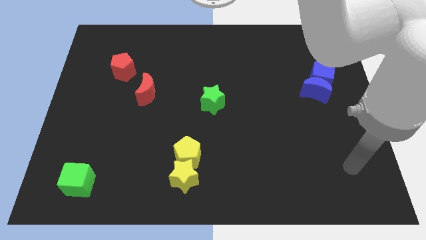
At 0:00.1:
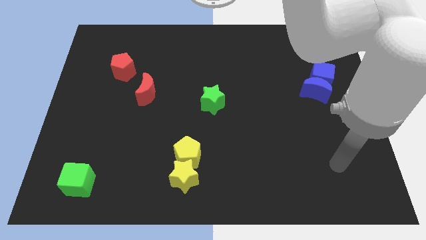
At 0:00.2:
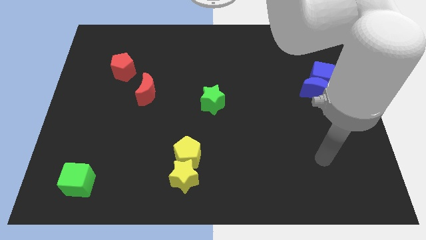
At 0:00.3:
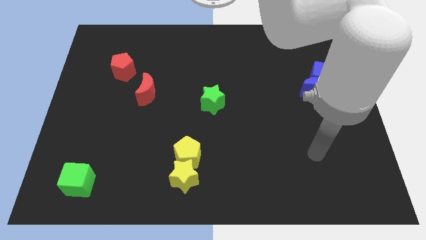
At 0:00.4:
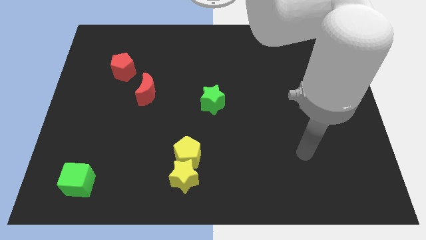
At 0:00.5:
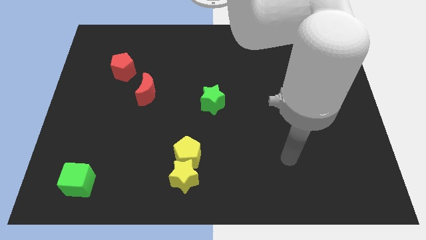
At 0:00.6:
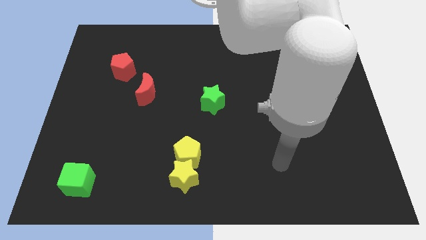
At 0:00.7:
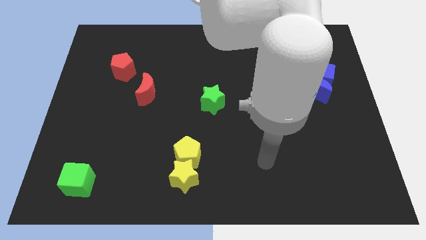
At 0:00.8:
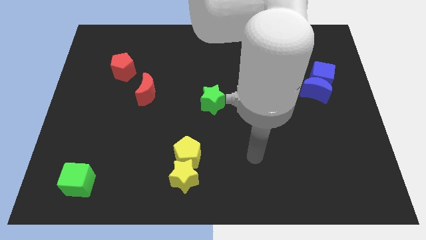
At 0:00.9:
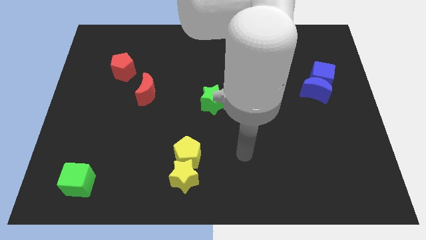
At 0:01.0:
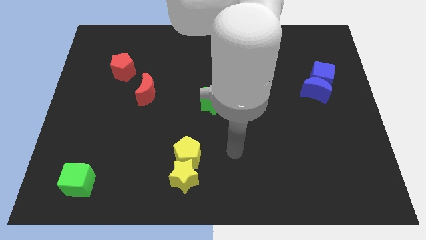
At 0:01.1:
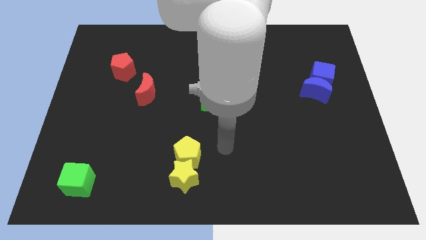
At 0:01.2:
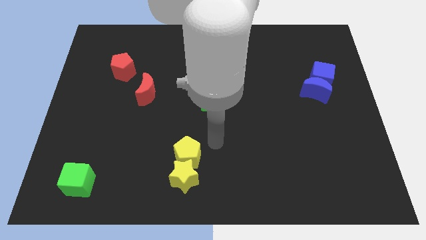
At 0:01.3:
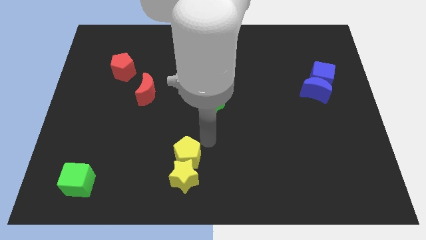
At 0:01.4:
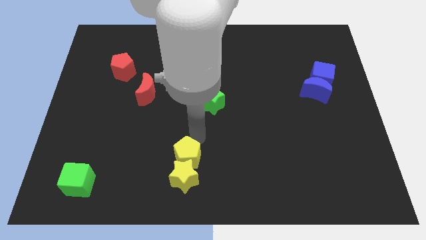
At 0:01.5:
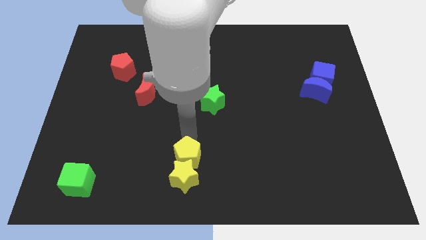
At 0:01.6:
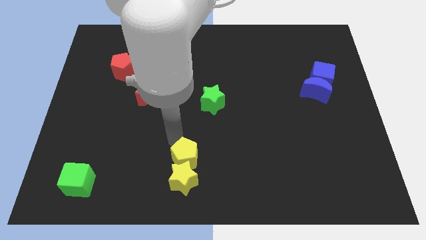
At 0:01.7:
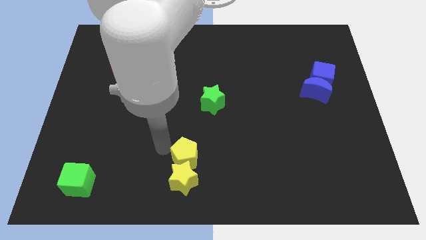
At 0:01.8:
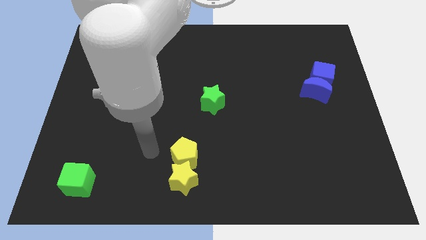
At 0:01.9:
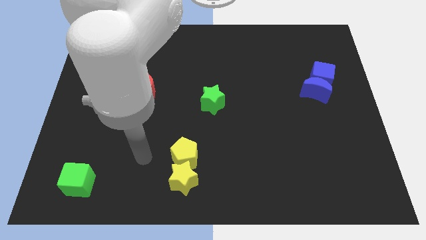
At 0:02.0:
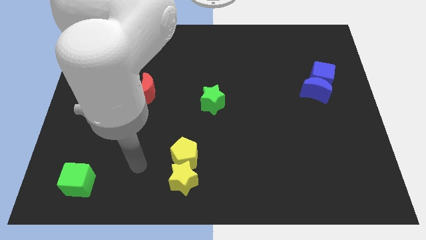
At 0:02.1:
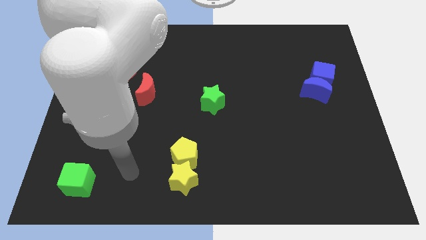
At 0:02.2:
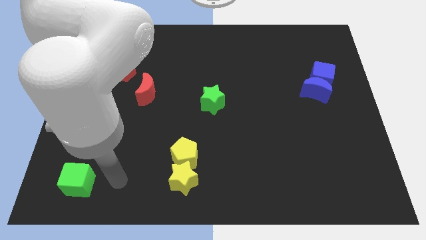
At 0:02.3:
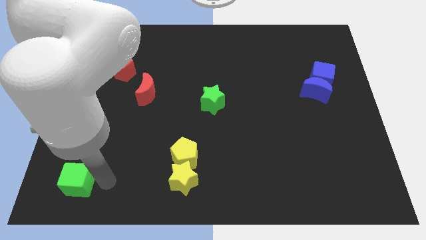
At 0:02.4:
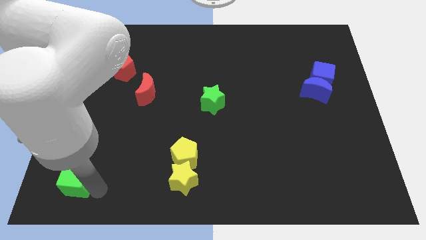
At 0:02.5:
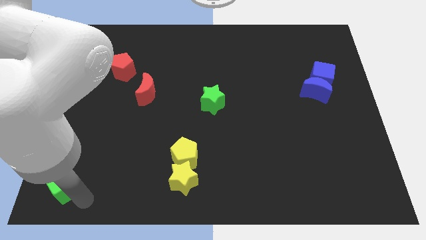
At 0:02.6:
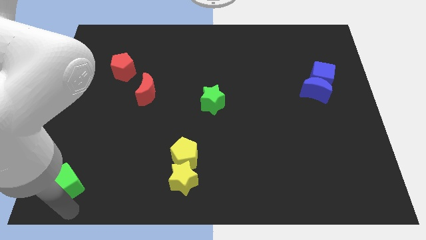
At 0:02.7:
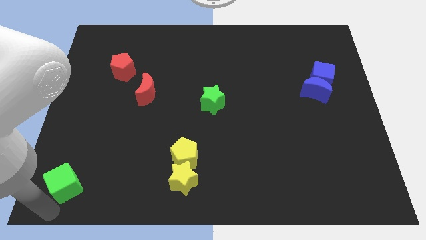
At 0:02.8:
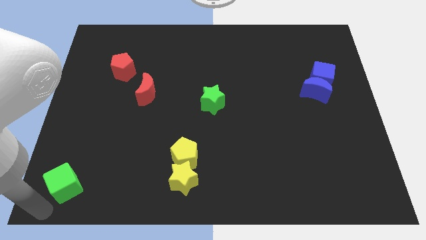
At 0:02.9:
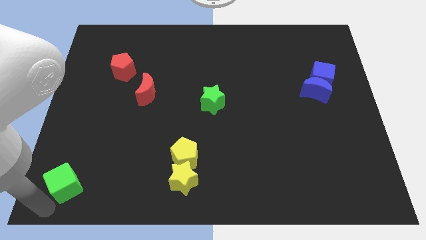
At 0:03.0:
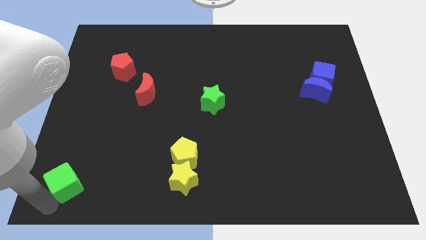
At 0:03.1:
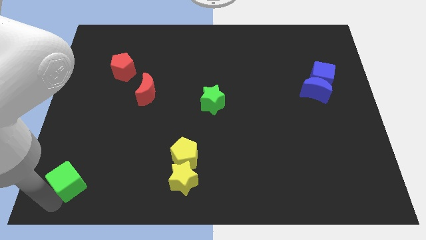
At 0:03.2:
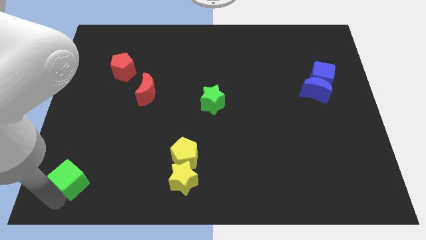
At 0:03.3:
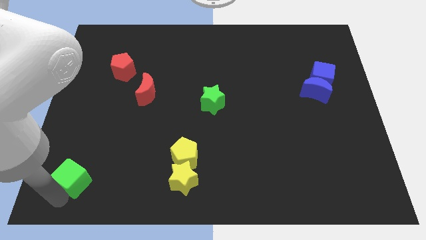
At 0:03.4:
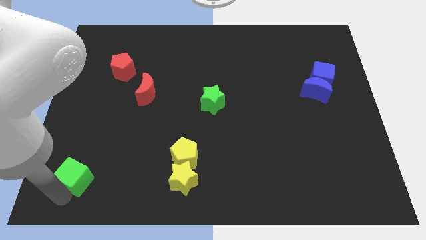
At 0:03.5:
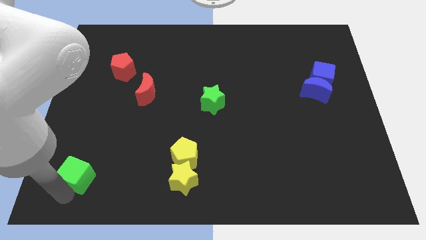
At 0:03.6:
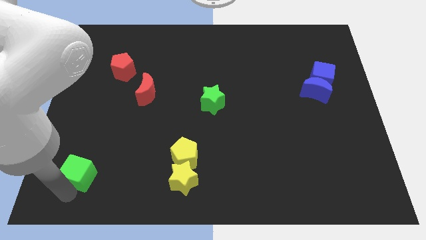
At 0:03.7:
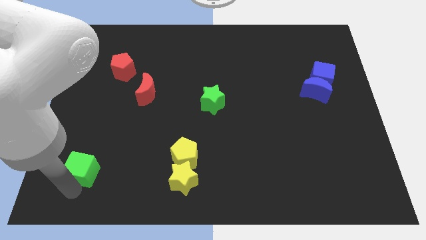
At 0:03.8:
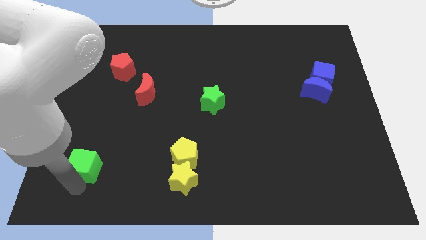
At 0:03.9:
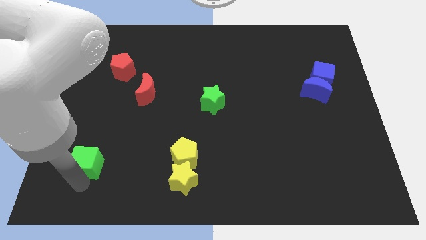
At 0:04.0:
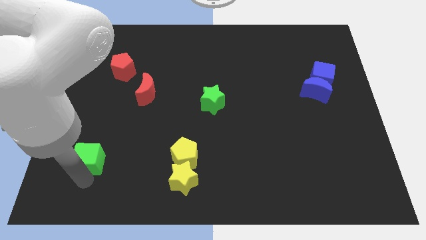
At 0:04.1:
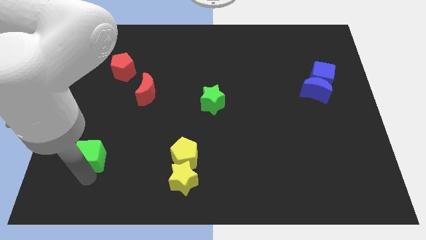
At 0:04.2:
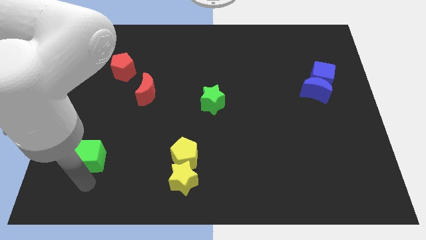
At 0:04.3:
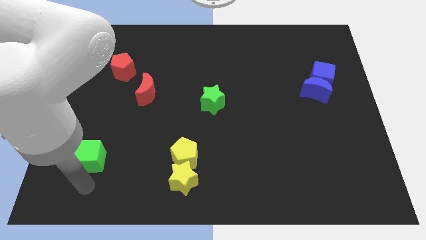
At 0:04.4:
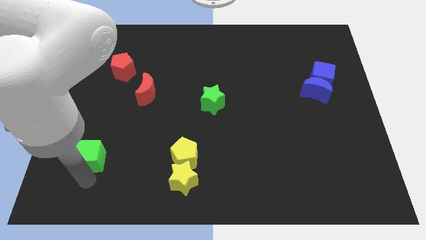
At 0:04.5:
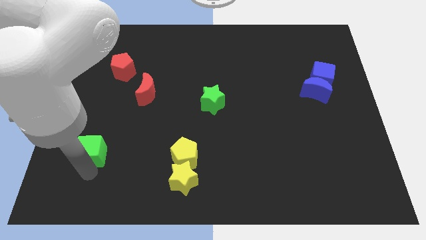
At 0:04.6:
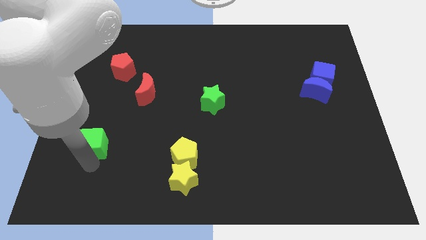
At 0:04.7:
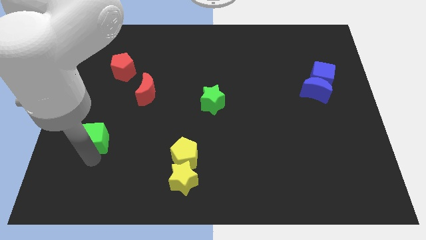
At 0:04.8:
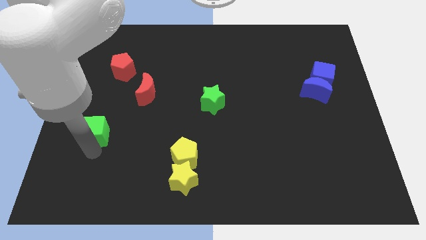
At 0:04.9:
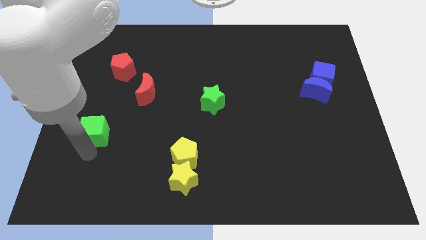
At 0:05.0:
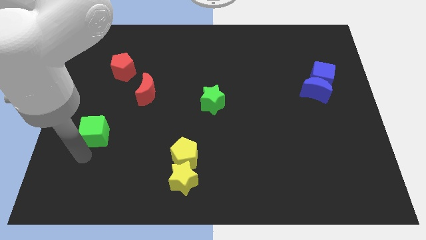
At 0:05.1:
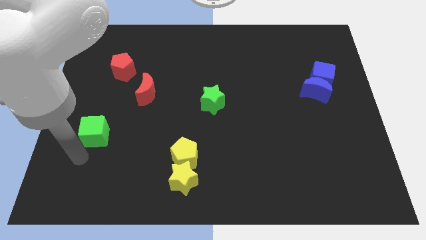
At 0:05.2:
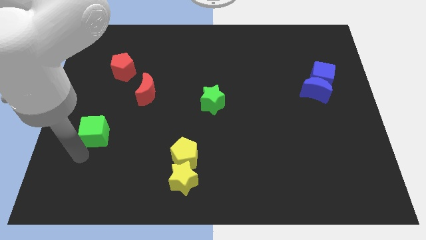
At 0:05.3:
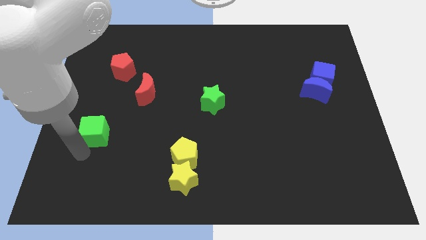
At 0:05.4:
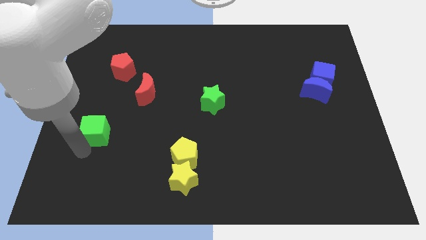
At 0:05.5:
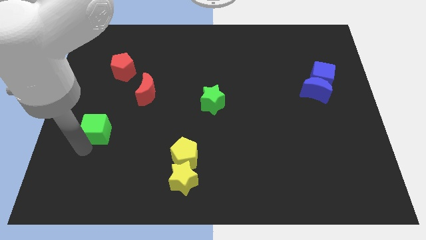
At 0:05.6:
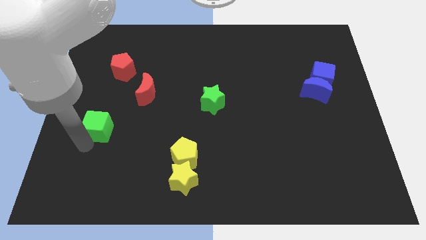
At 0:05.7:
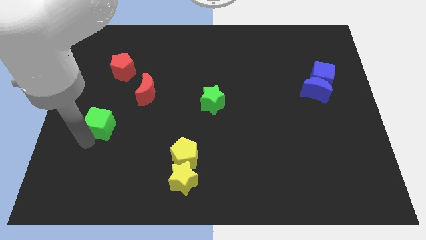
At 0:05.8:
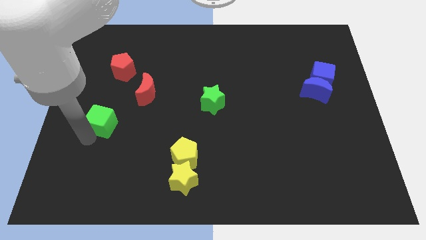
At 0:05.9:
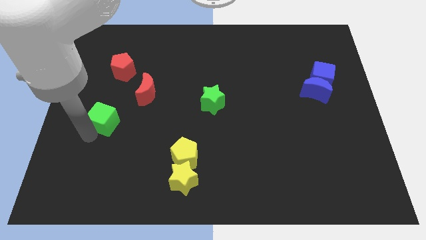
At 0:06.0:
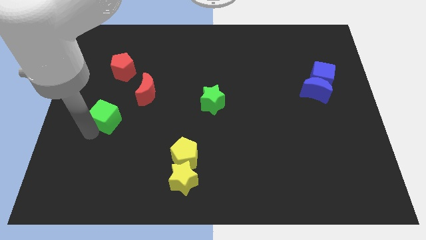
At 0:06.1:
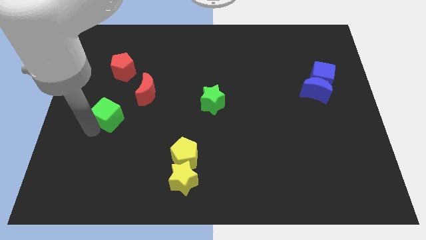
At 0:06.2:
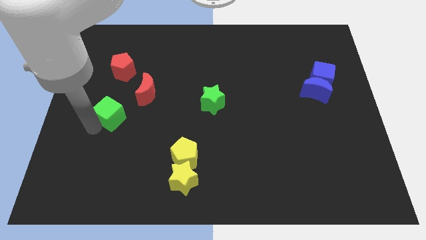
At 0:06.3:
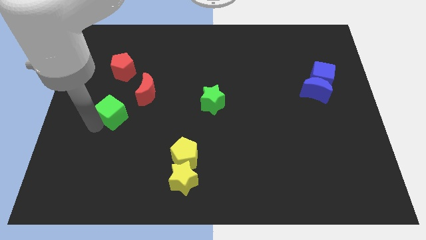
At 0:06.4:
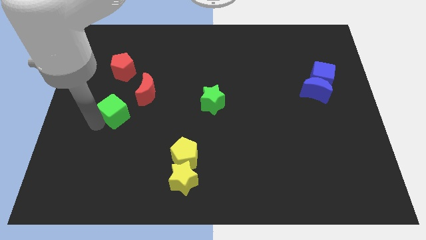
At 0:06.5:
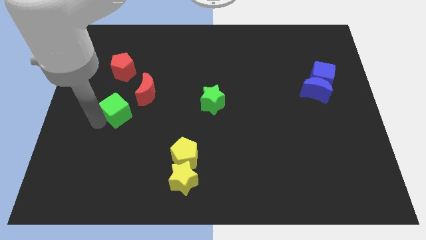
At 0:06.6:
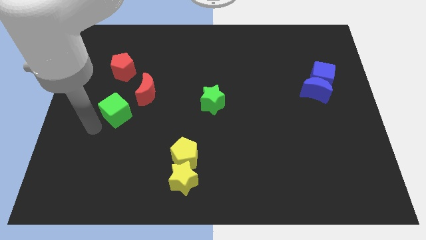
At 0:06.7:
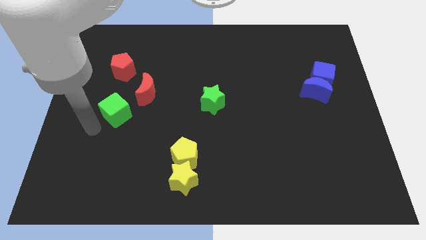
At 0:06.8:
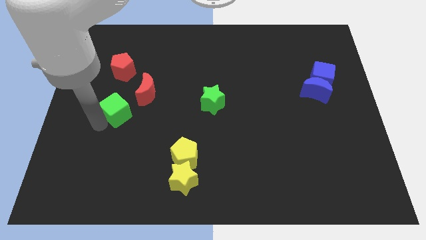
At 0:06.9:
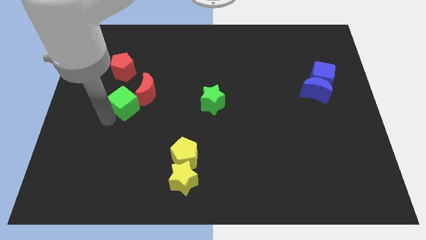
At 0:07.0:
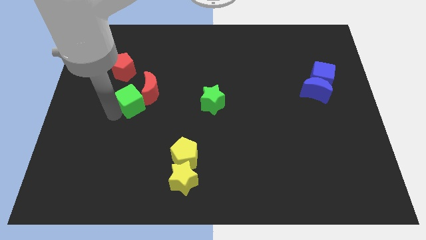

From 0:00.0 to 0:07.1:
slide the green cube towards the red moon

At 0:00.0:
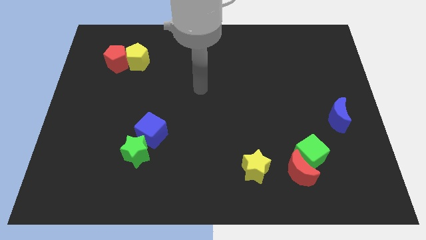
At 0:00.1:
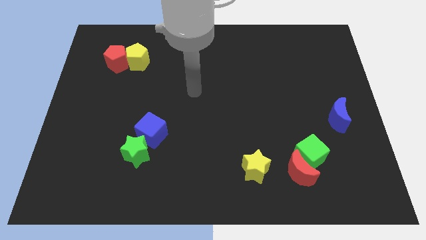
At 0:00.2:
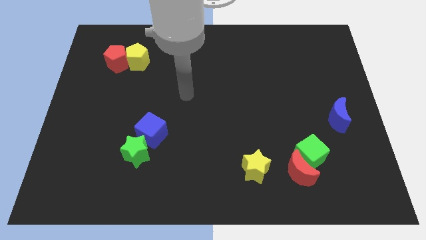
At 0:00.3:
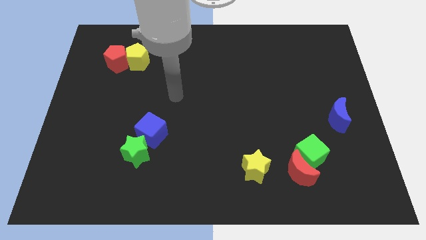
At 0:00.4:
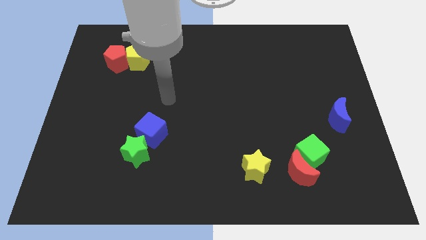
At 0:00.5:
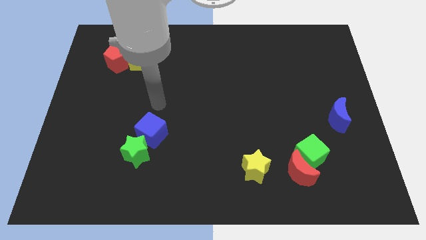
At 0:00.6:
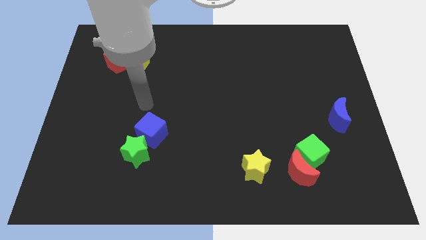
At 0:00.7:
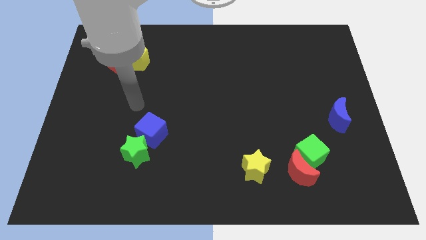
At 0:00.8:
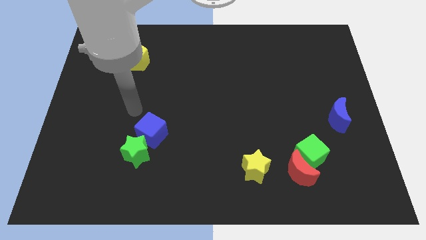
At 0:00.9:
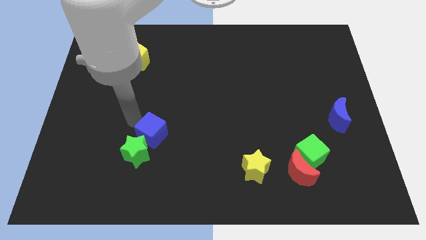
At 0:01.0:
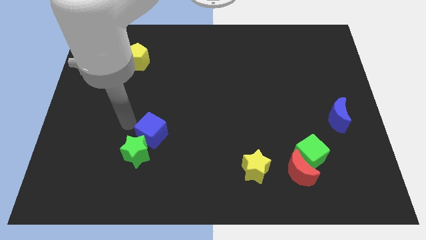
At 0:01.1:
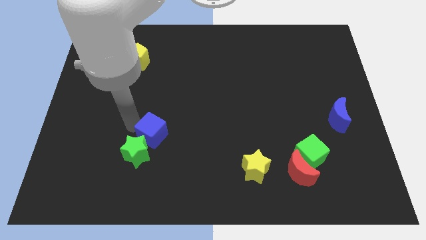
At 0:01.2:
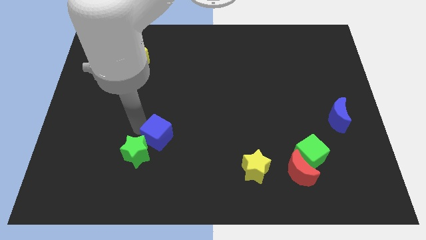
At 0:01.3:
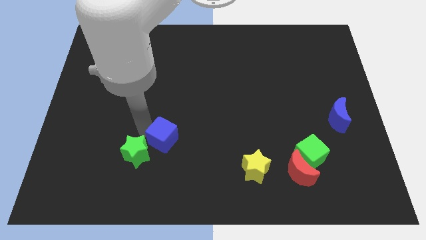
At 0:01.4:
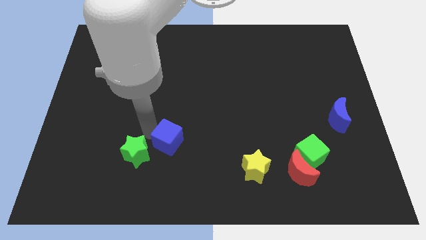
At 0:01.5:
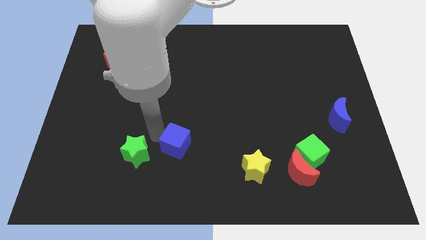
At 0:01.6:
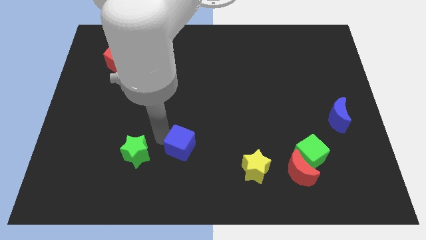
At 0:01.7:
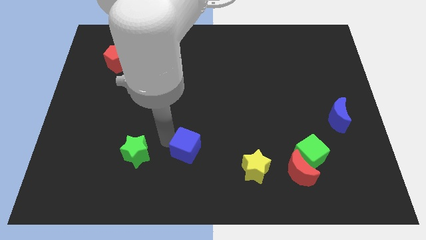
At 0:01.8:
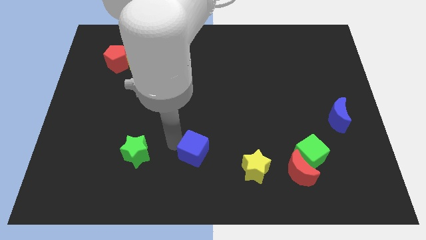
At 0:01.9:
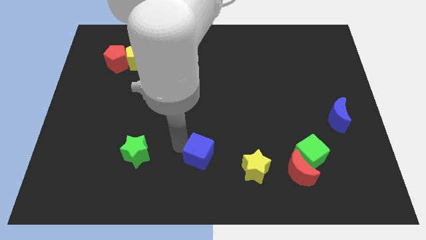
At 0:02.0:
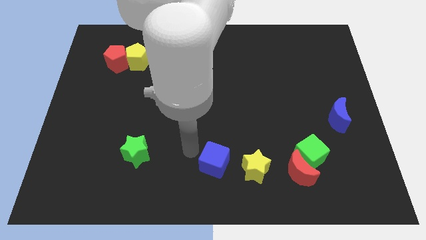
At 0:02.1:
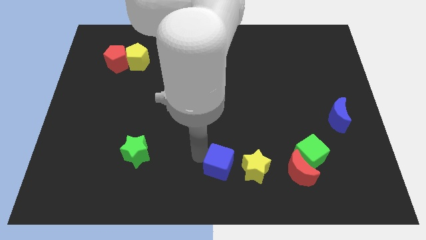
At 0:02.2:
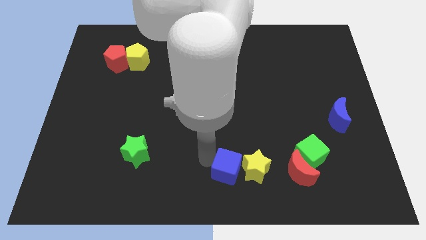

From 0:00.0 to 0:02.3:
move the blue cube towards the yellow star
